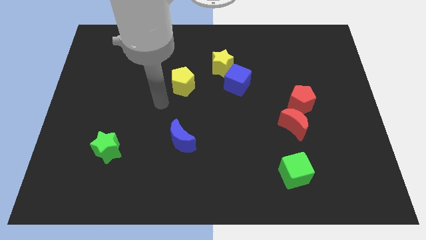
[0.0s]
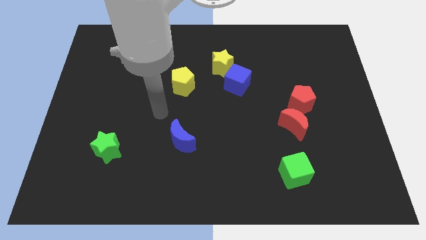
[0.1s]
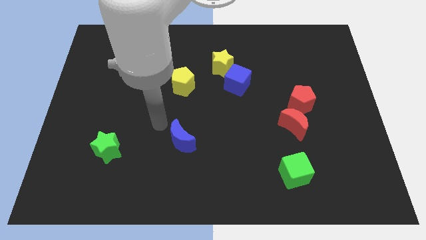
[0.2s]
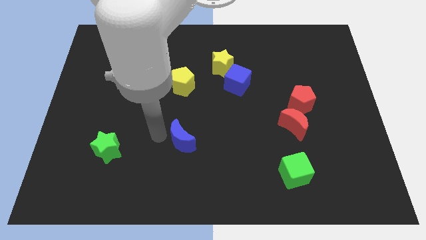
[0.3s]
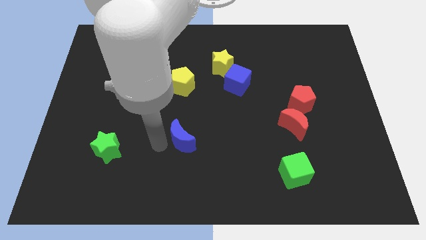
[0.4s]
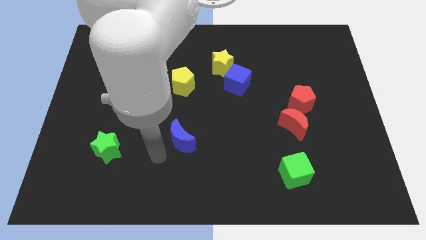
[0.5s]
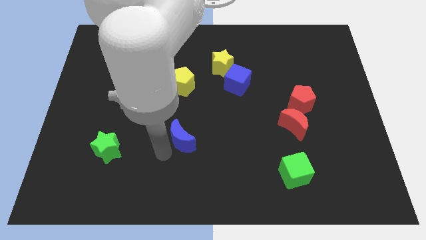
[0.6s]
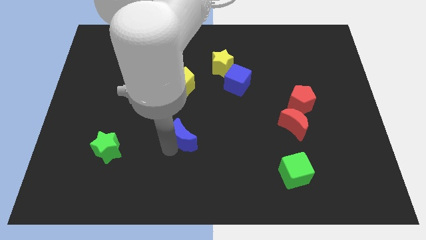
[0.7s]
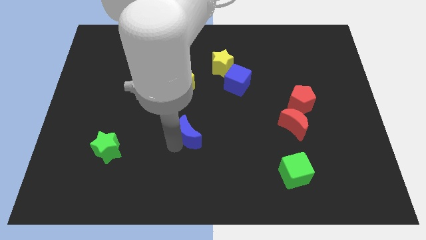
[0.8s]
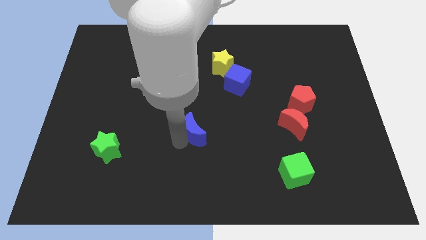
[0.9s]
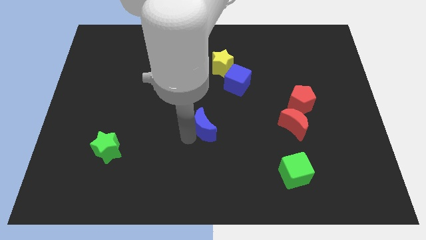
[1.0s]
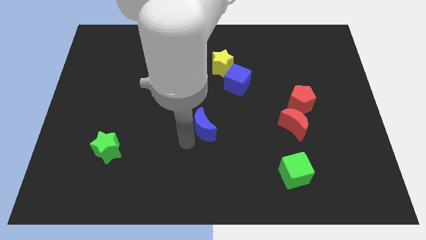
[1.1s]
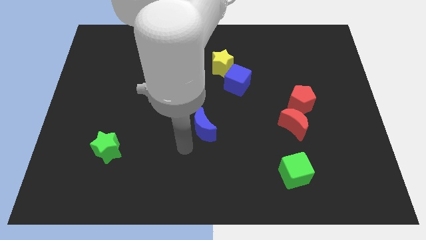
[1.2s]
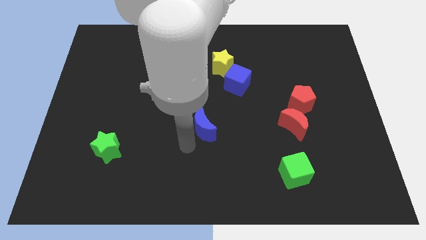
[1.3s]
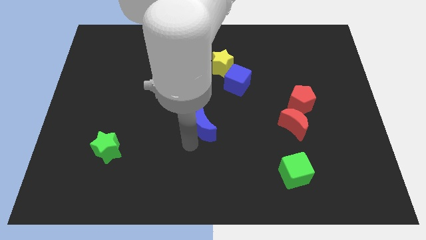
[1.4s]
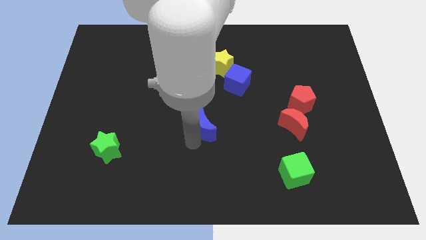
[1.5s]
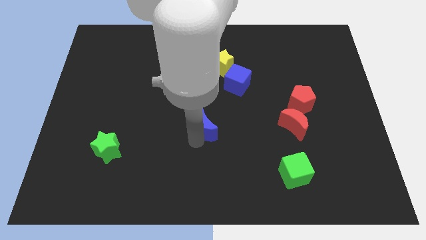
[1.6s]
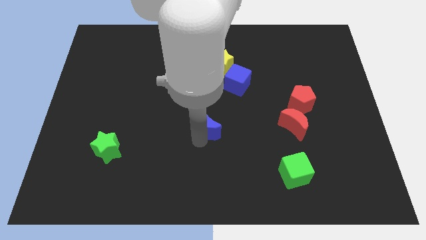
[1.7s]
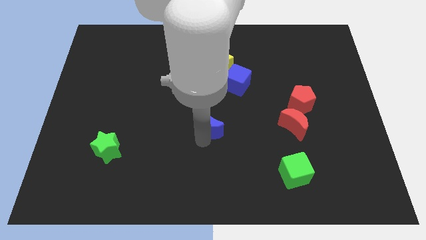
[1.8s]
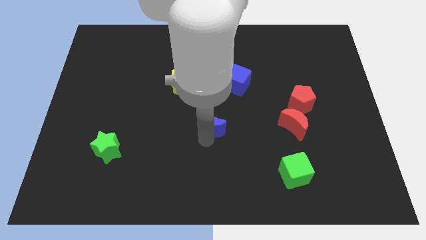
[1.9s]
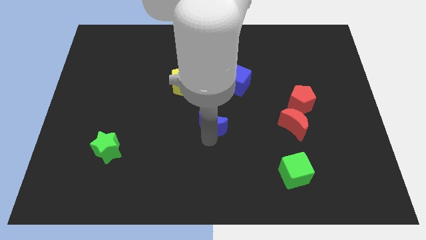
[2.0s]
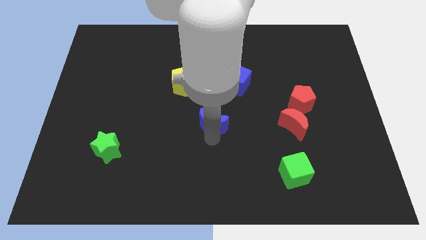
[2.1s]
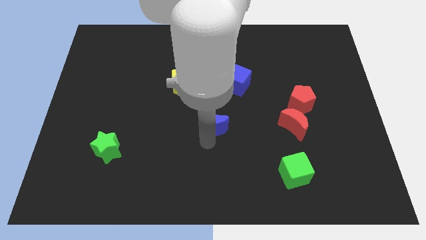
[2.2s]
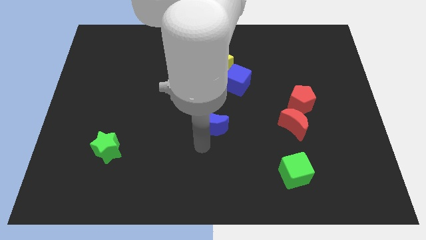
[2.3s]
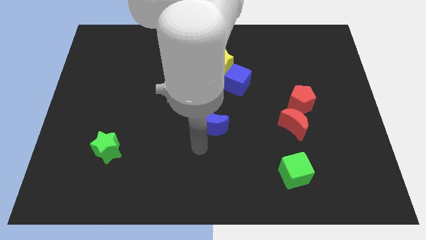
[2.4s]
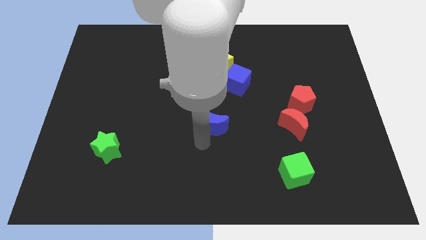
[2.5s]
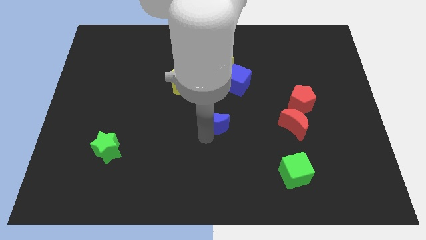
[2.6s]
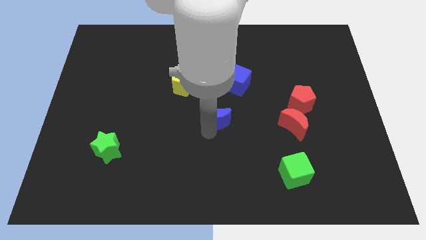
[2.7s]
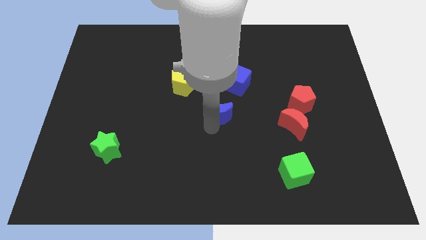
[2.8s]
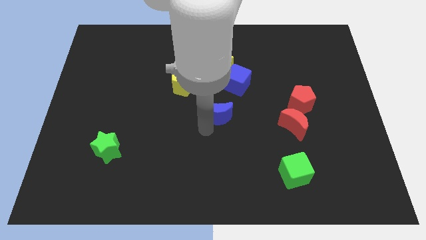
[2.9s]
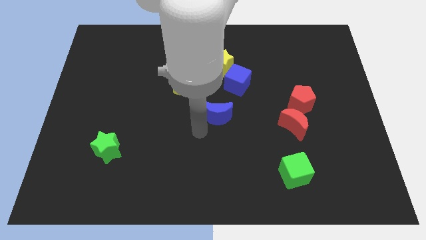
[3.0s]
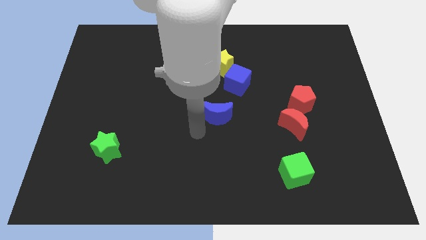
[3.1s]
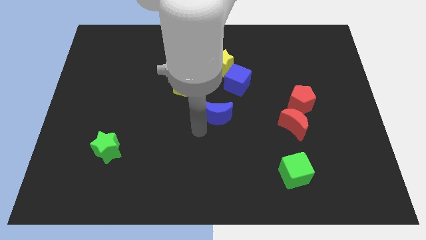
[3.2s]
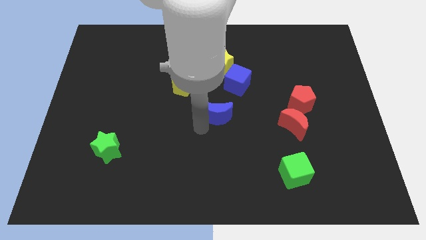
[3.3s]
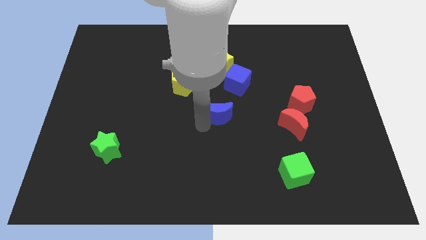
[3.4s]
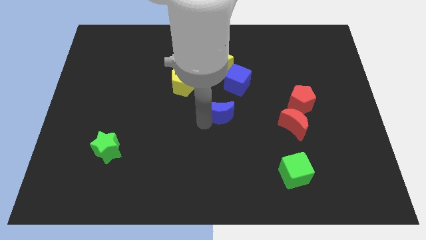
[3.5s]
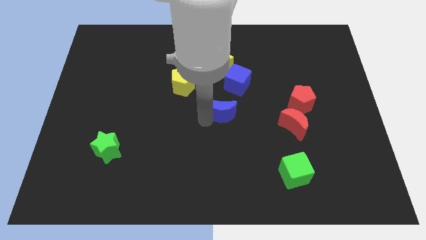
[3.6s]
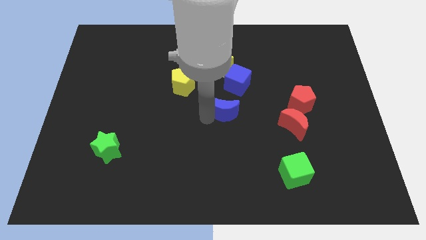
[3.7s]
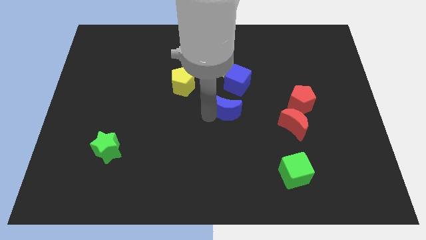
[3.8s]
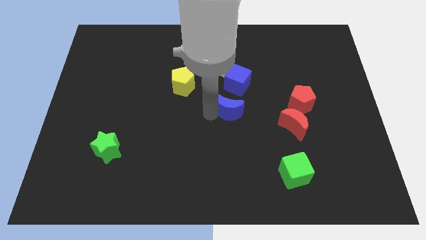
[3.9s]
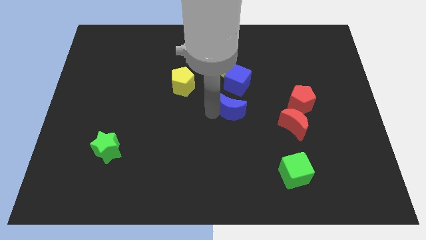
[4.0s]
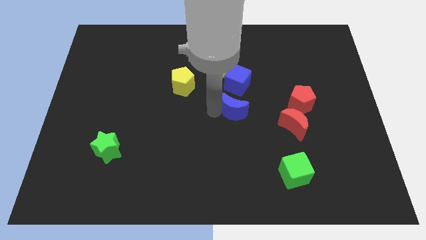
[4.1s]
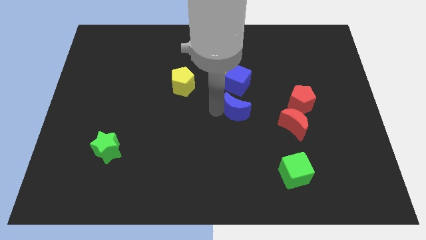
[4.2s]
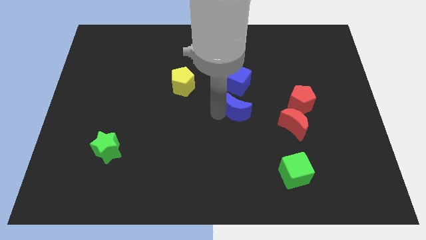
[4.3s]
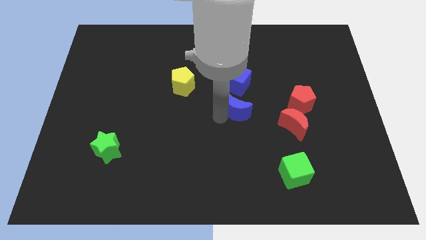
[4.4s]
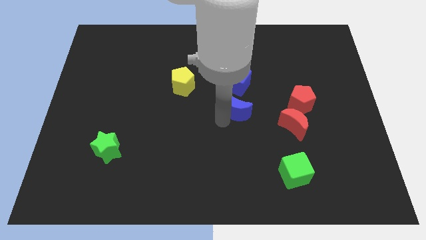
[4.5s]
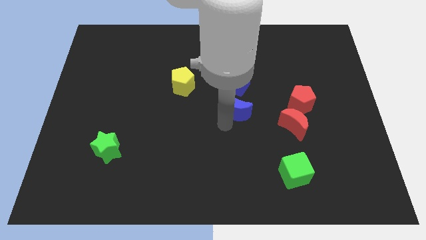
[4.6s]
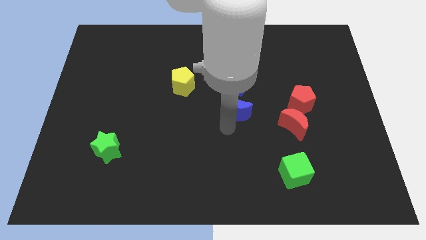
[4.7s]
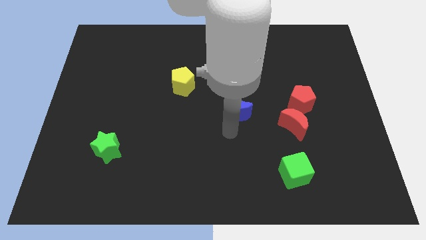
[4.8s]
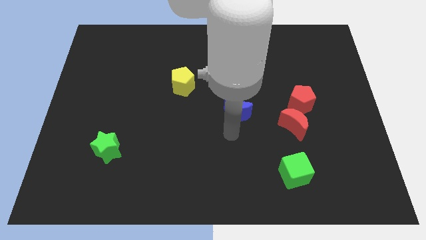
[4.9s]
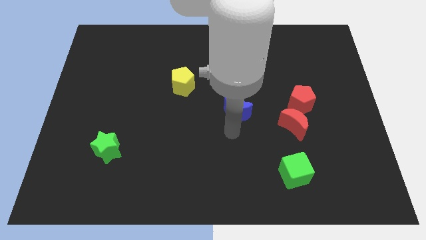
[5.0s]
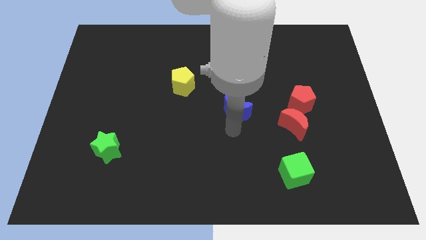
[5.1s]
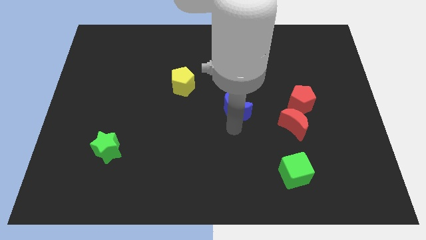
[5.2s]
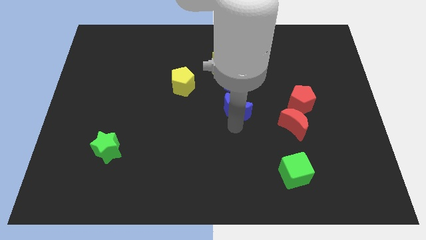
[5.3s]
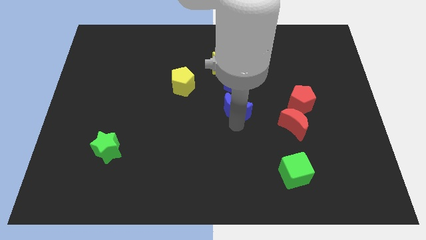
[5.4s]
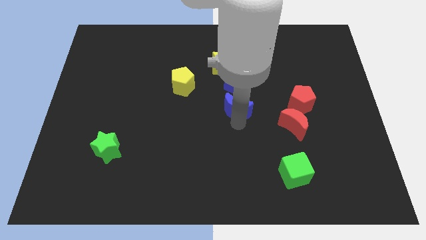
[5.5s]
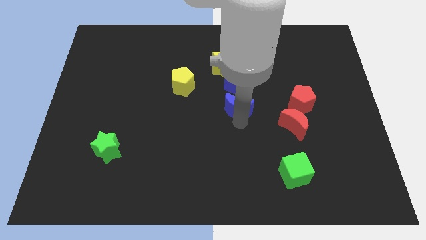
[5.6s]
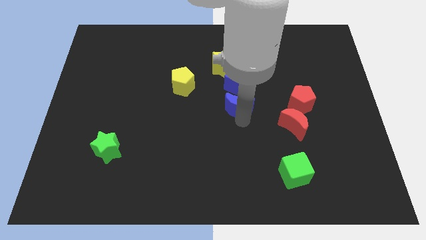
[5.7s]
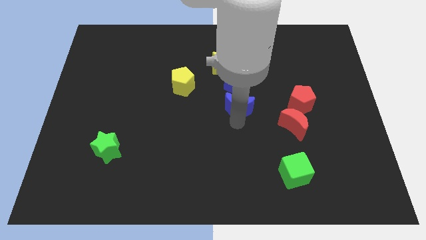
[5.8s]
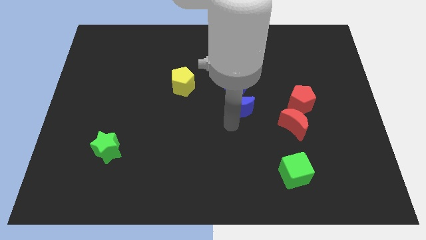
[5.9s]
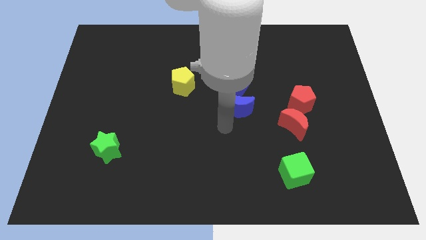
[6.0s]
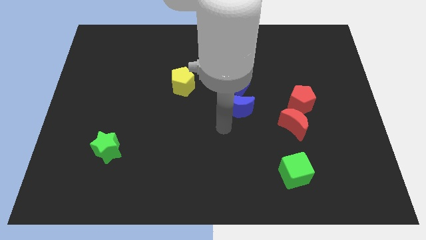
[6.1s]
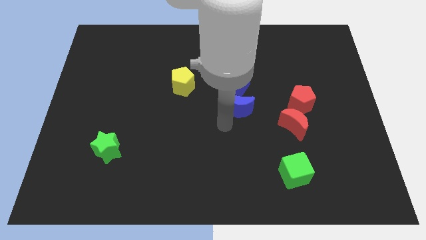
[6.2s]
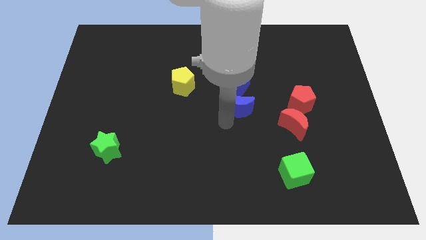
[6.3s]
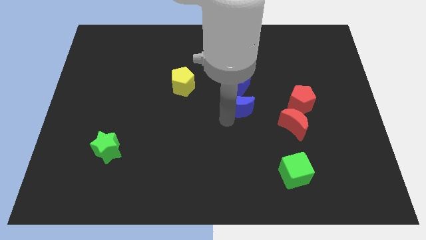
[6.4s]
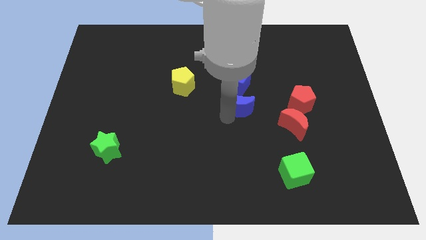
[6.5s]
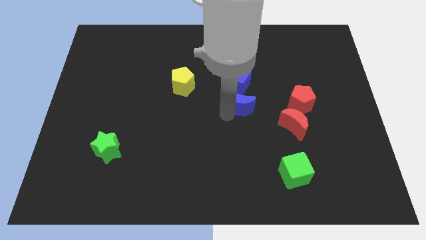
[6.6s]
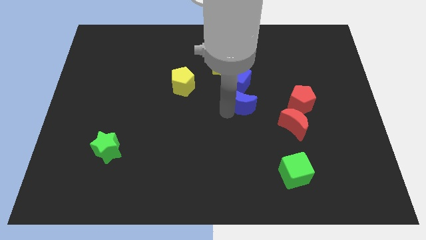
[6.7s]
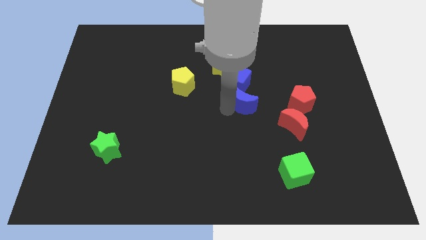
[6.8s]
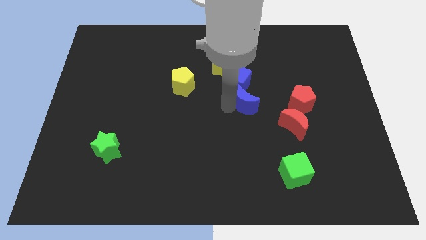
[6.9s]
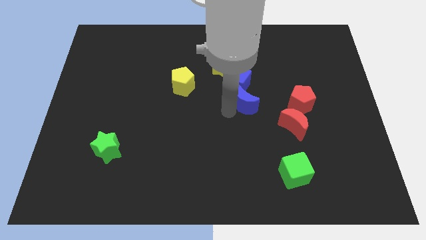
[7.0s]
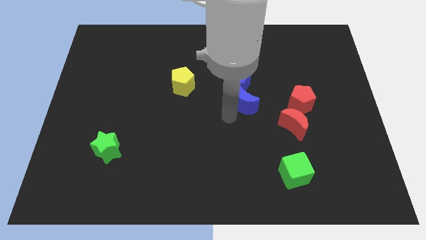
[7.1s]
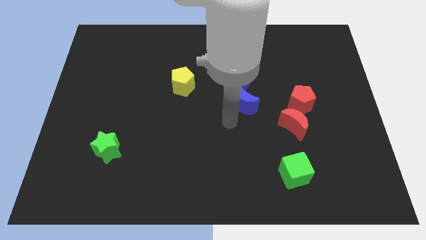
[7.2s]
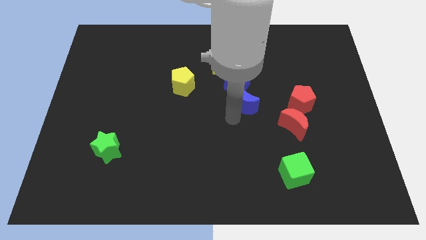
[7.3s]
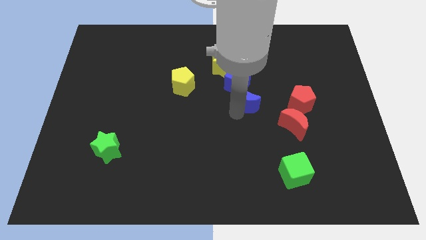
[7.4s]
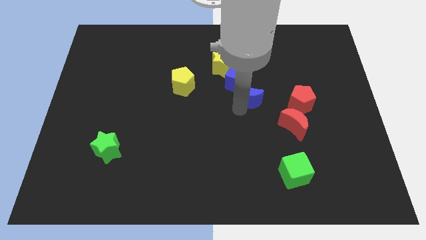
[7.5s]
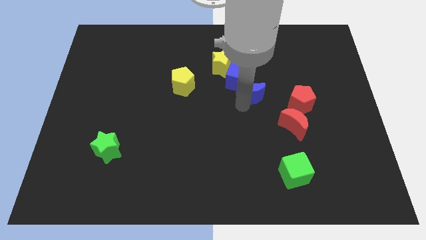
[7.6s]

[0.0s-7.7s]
move the blue moon upwards and right

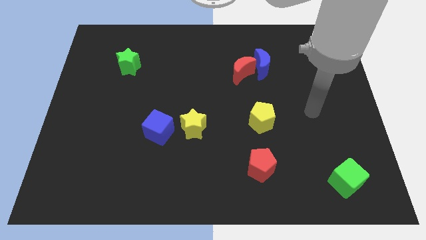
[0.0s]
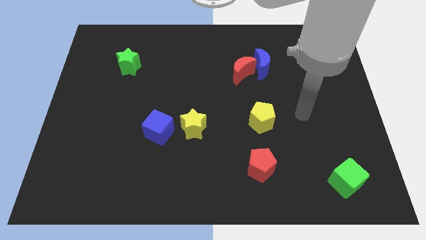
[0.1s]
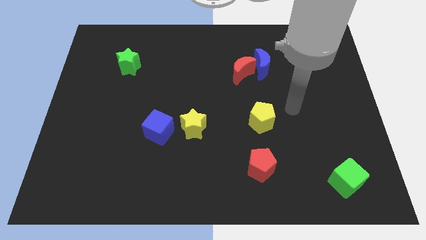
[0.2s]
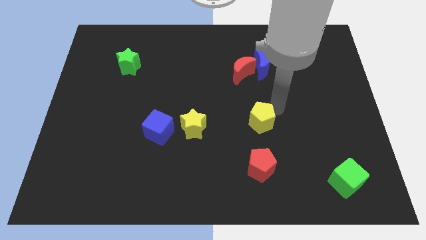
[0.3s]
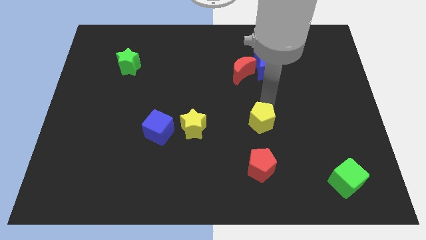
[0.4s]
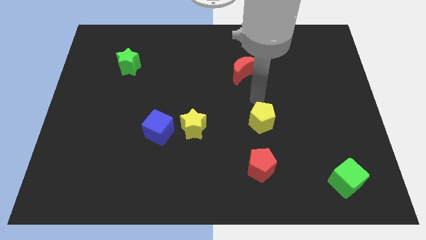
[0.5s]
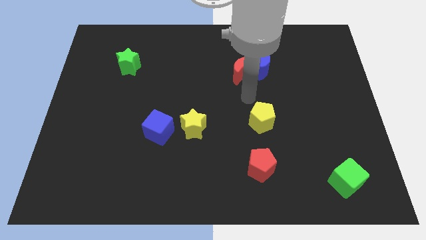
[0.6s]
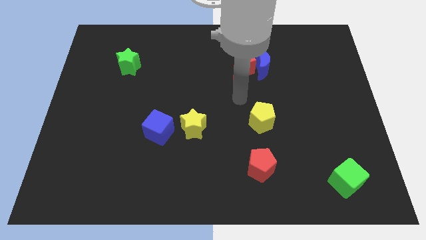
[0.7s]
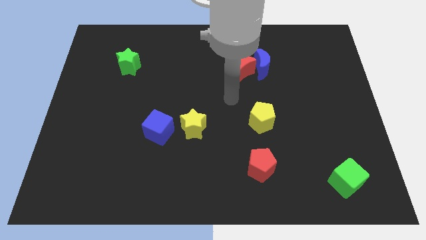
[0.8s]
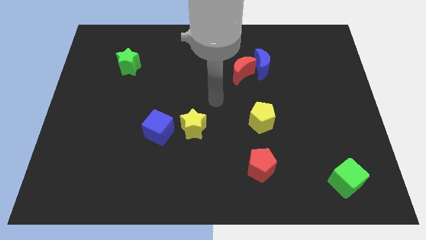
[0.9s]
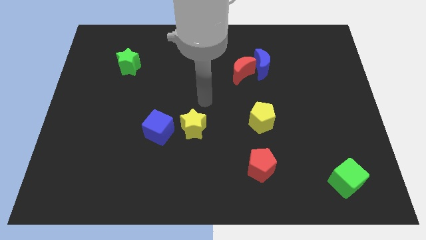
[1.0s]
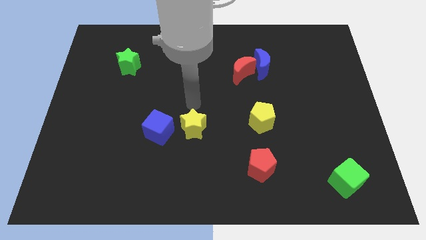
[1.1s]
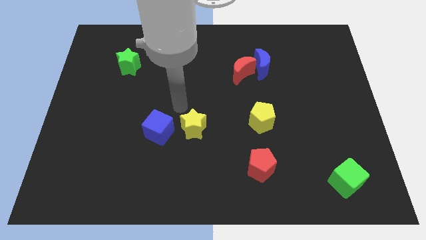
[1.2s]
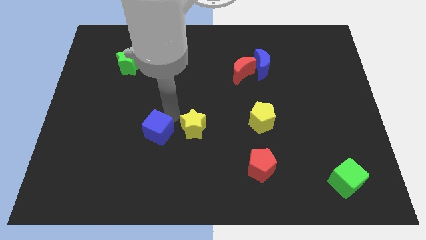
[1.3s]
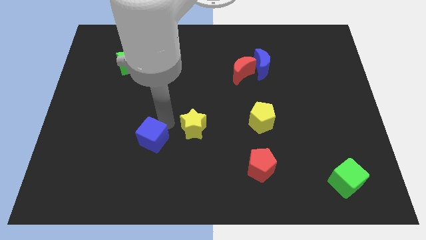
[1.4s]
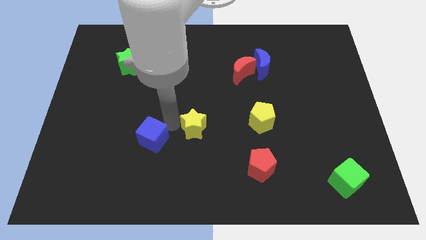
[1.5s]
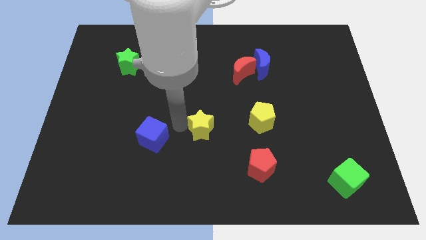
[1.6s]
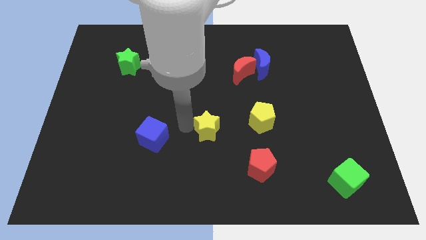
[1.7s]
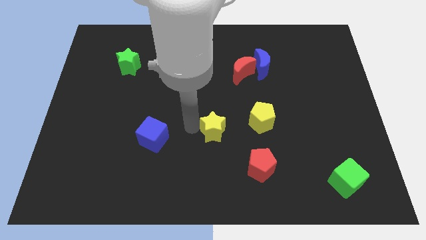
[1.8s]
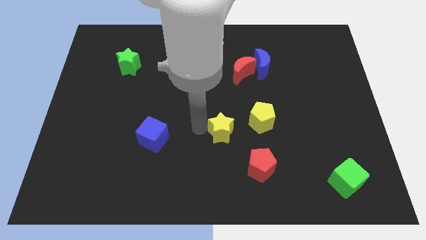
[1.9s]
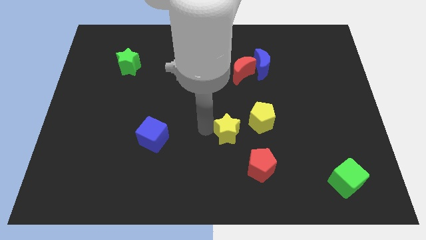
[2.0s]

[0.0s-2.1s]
slightly move the yellow star right
